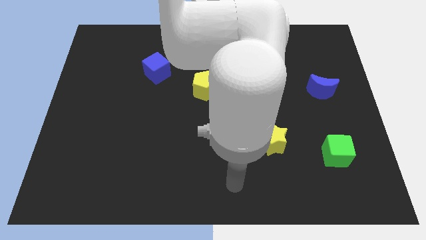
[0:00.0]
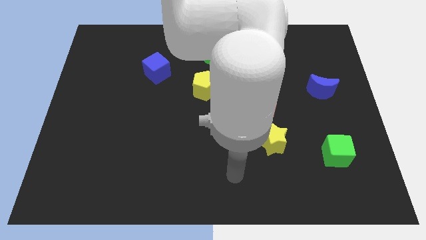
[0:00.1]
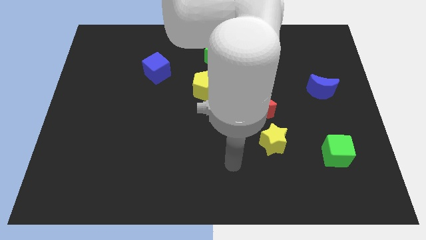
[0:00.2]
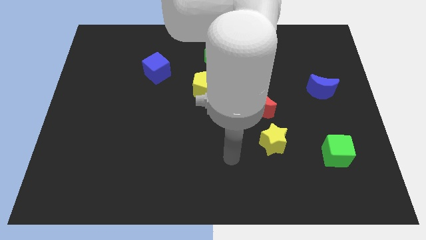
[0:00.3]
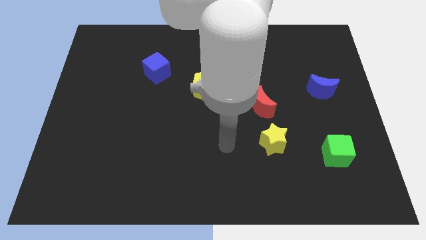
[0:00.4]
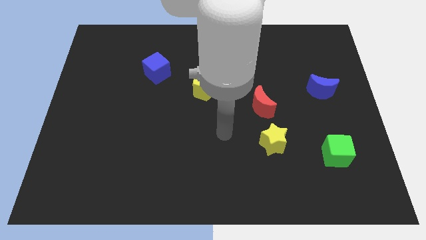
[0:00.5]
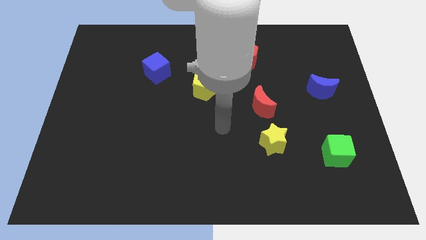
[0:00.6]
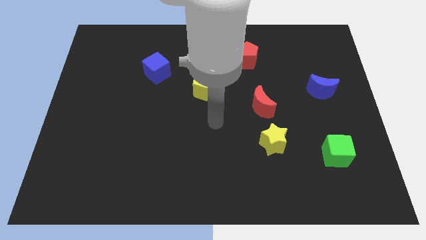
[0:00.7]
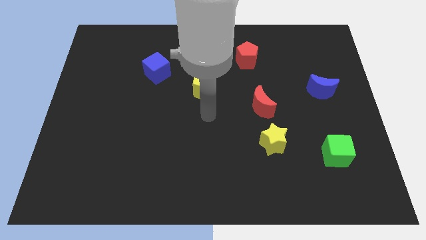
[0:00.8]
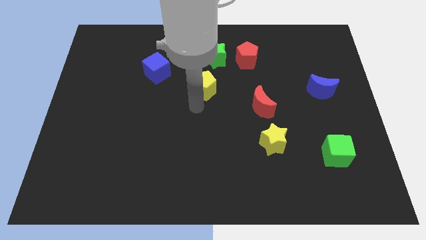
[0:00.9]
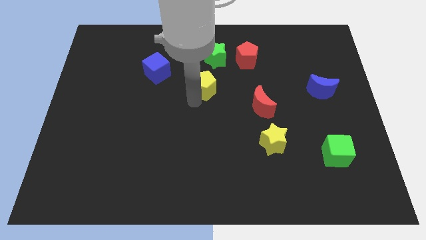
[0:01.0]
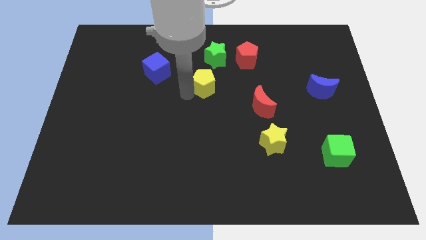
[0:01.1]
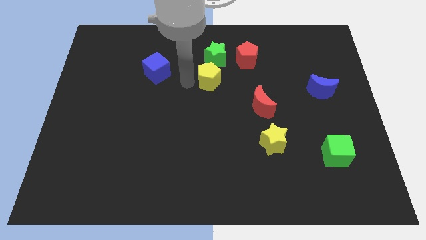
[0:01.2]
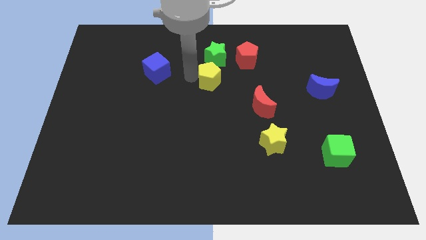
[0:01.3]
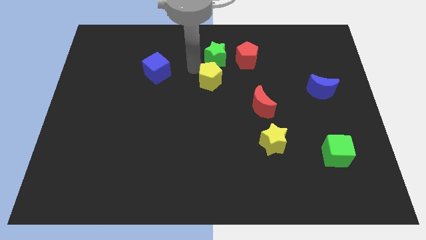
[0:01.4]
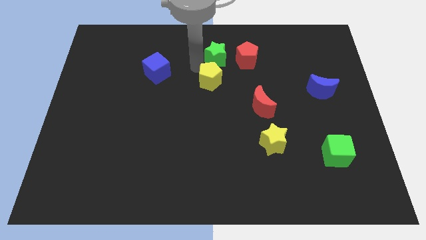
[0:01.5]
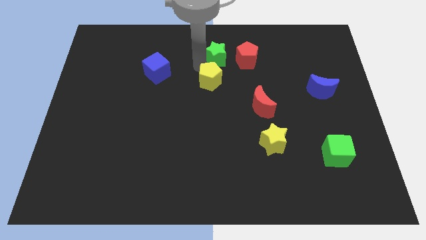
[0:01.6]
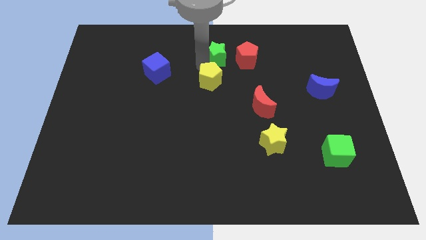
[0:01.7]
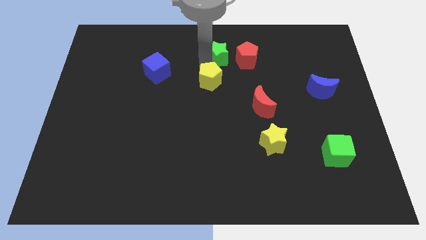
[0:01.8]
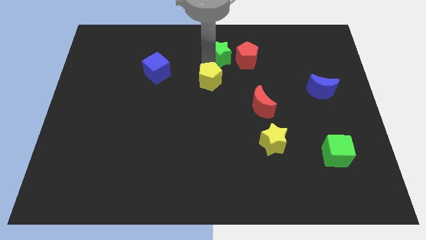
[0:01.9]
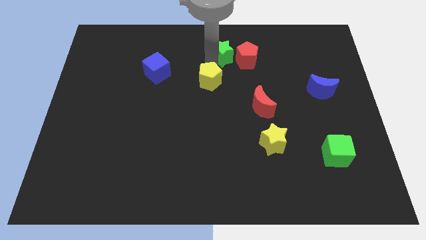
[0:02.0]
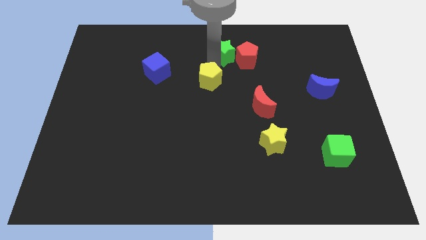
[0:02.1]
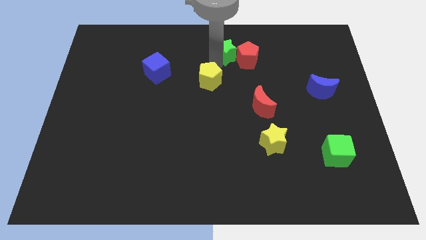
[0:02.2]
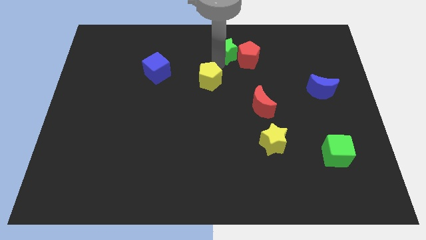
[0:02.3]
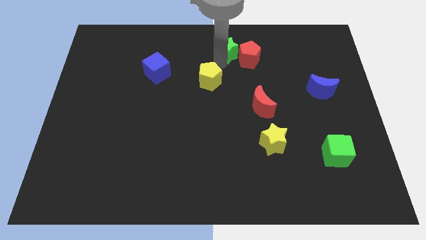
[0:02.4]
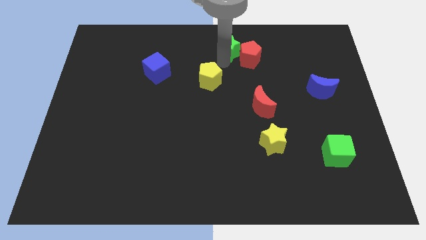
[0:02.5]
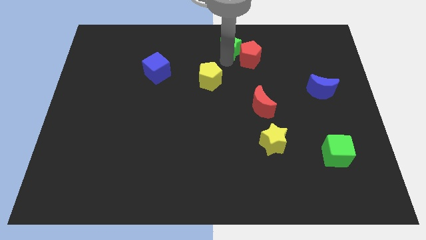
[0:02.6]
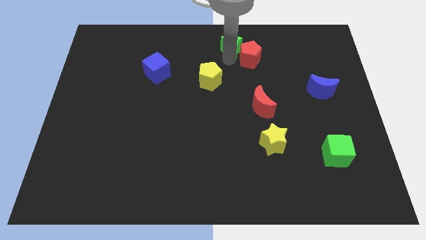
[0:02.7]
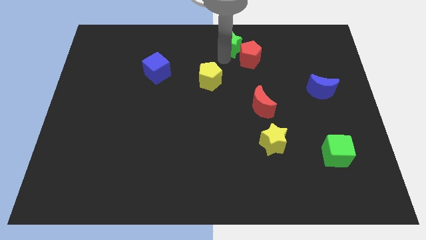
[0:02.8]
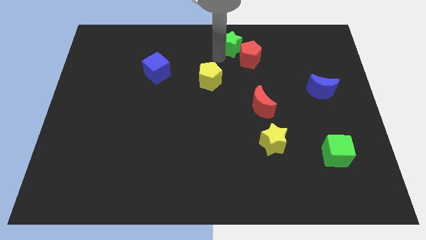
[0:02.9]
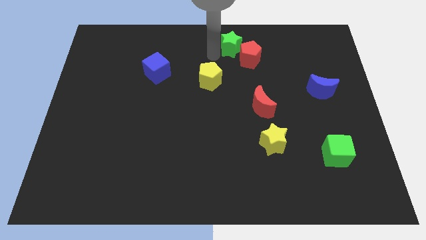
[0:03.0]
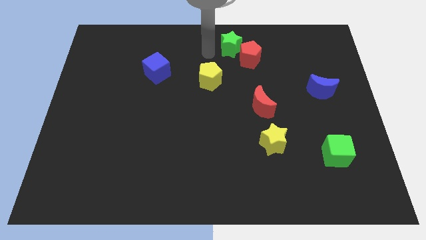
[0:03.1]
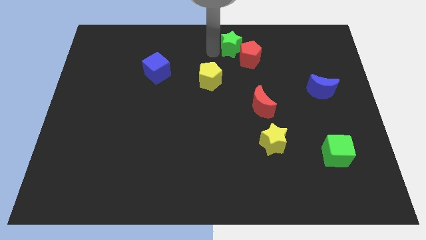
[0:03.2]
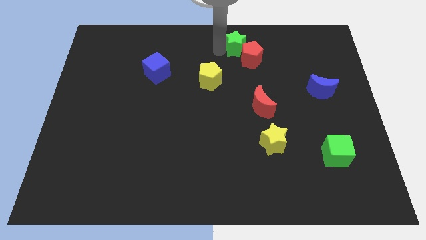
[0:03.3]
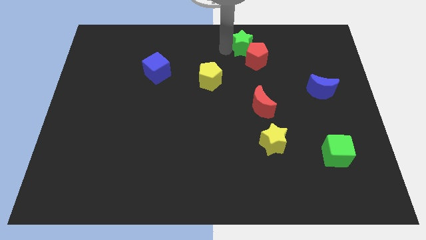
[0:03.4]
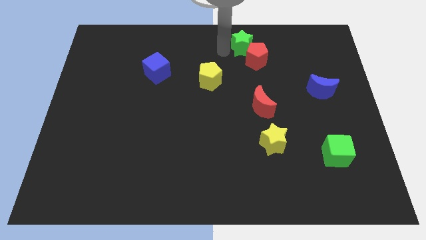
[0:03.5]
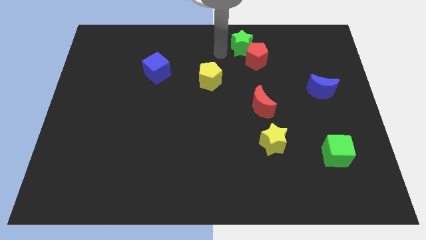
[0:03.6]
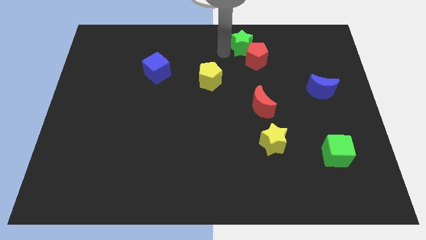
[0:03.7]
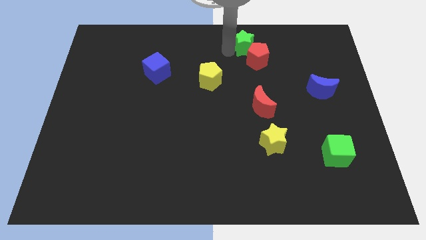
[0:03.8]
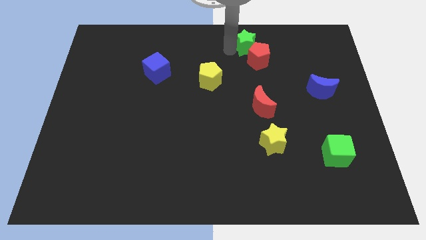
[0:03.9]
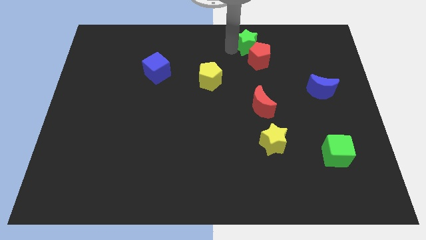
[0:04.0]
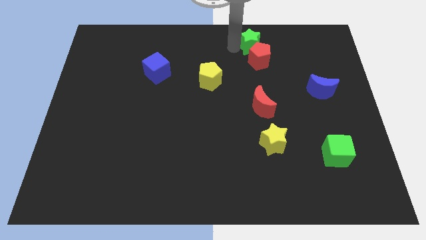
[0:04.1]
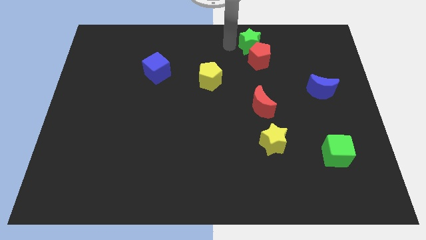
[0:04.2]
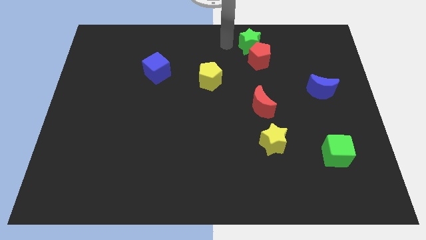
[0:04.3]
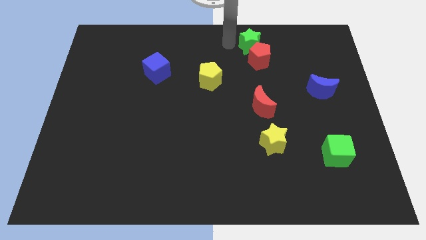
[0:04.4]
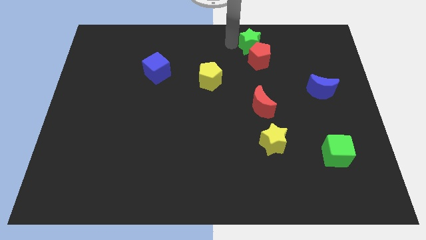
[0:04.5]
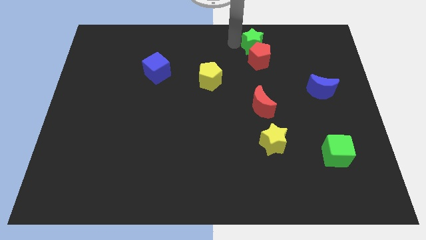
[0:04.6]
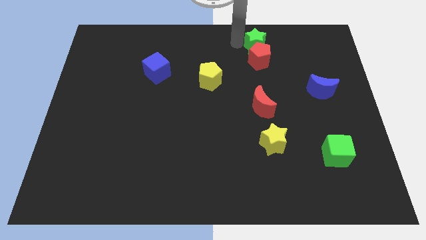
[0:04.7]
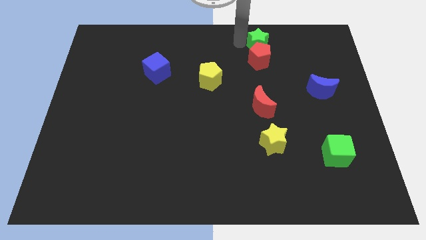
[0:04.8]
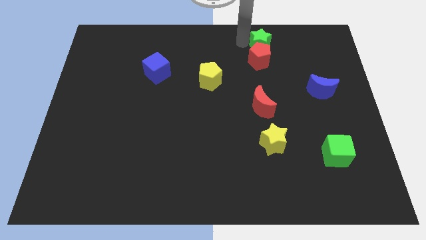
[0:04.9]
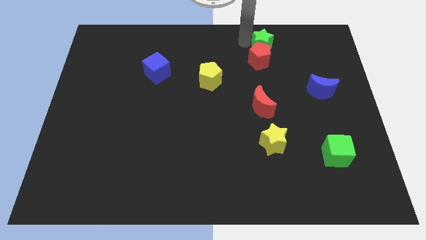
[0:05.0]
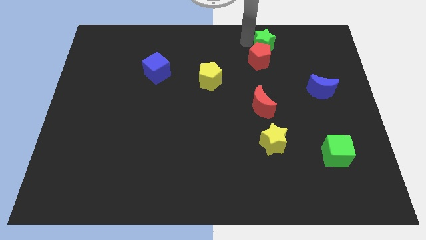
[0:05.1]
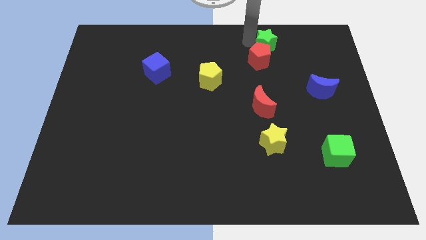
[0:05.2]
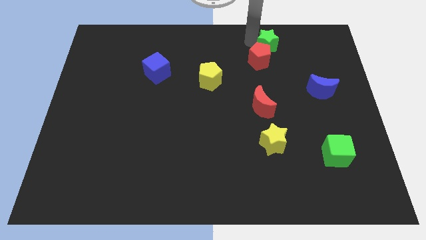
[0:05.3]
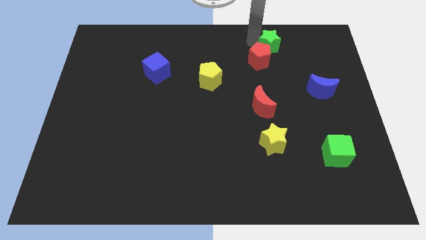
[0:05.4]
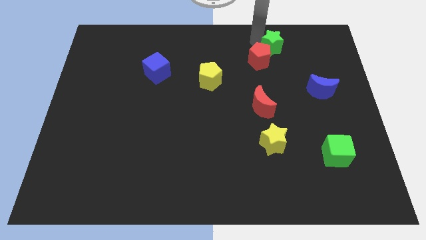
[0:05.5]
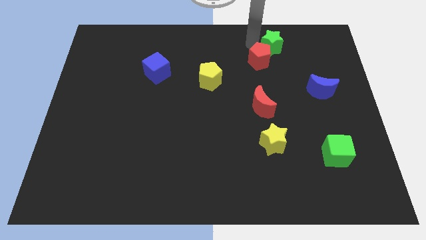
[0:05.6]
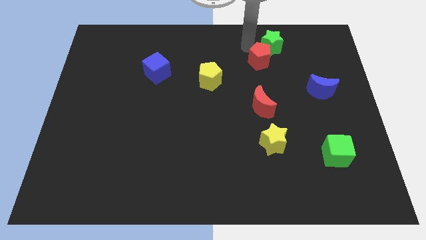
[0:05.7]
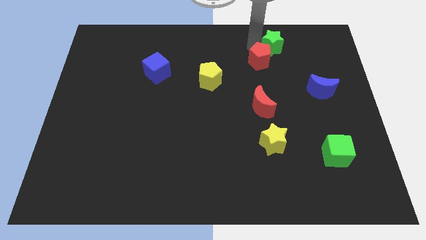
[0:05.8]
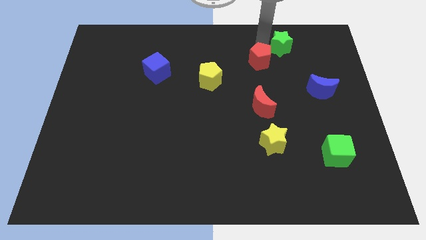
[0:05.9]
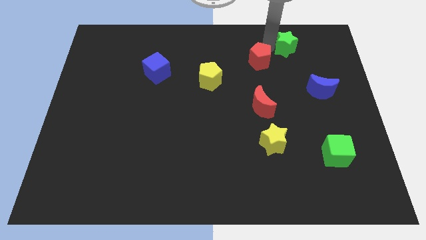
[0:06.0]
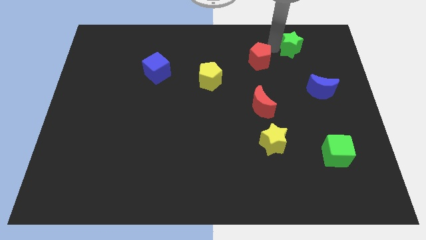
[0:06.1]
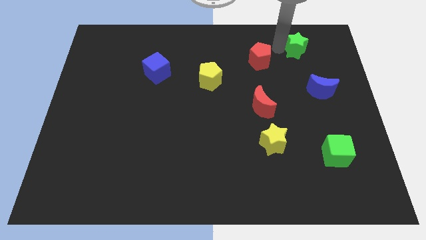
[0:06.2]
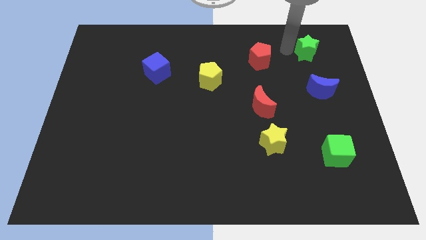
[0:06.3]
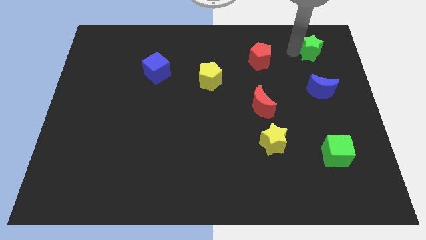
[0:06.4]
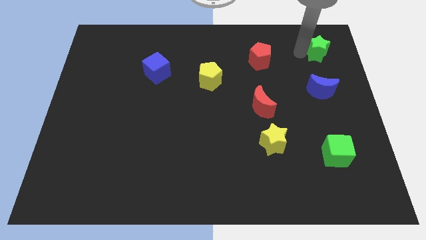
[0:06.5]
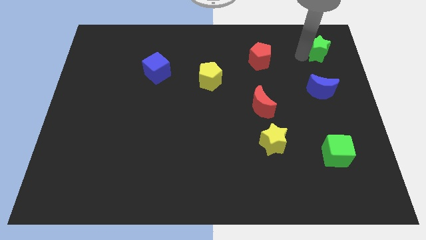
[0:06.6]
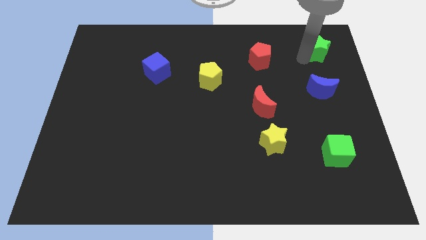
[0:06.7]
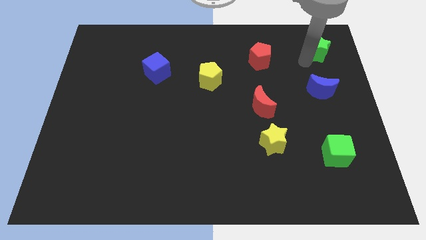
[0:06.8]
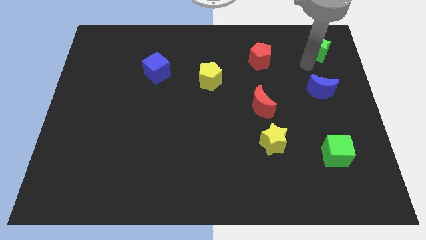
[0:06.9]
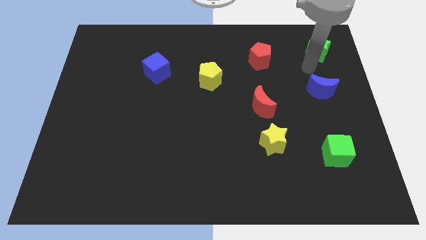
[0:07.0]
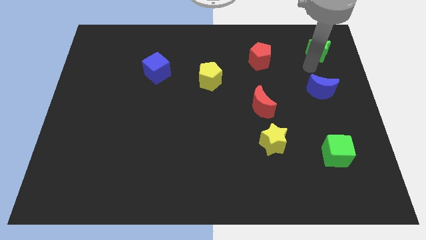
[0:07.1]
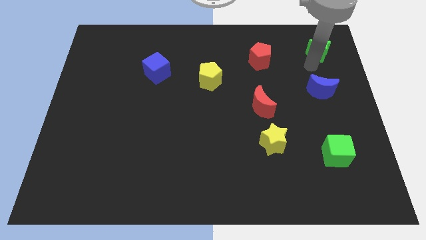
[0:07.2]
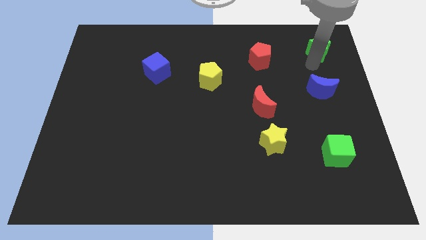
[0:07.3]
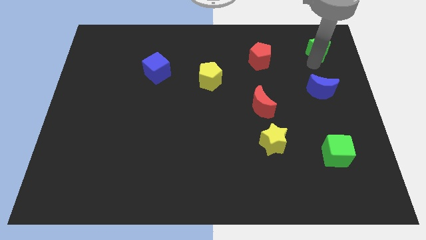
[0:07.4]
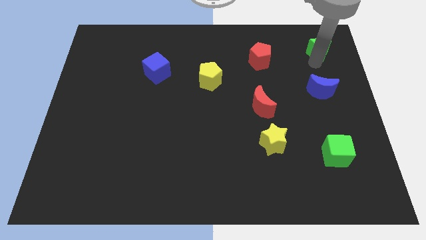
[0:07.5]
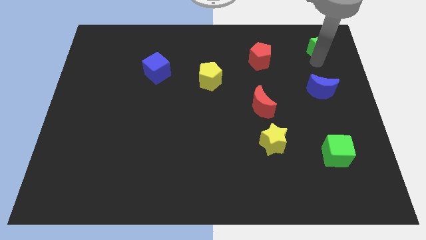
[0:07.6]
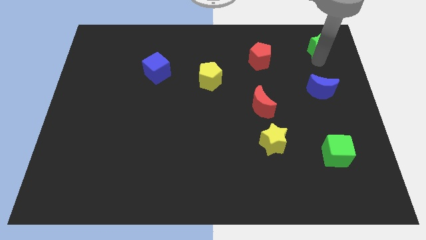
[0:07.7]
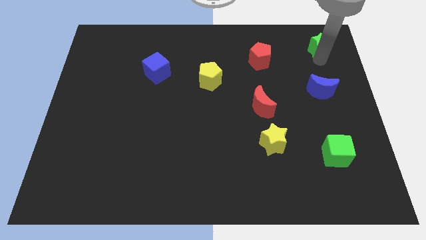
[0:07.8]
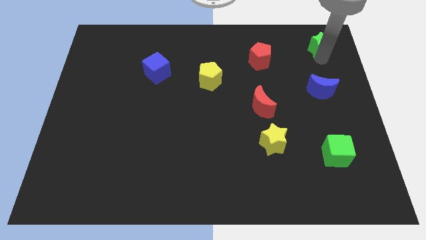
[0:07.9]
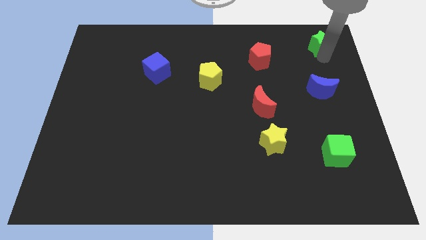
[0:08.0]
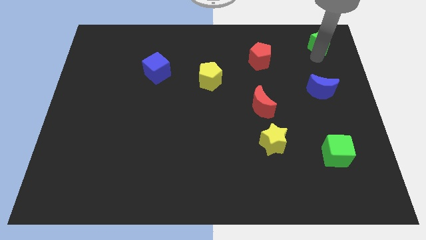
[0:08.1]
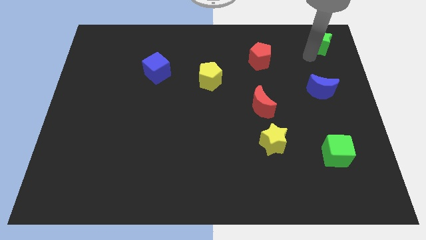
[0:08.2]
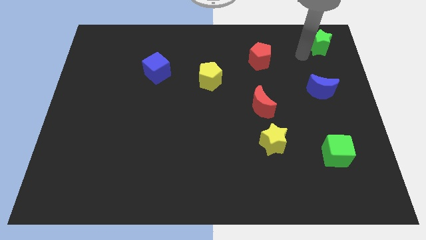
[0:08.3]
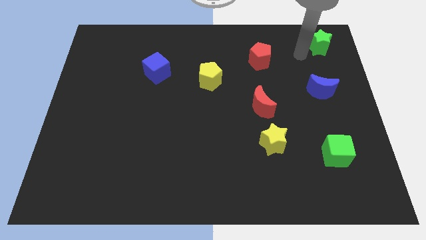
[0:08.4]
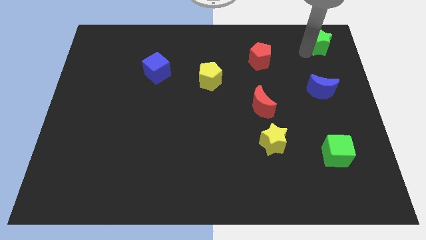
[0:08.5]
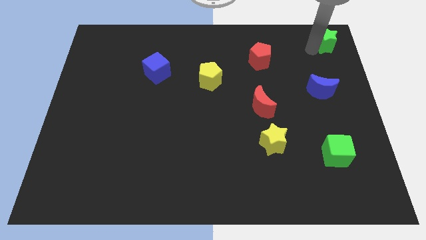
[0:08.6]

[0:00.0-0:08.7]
slide the green star to the top right
